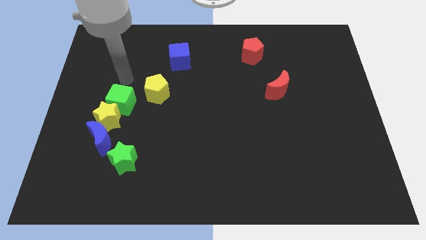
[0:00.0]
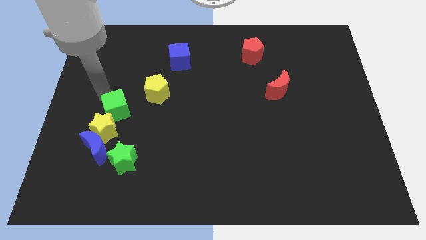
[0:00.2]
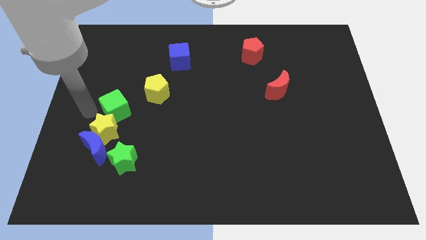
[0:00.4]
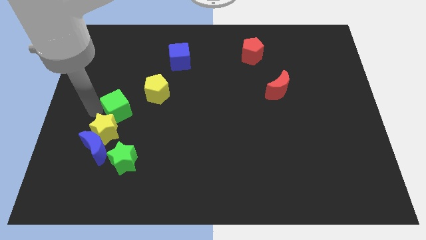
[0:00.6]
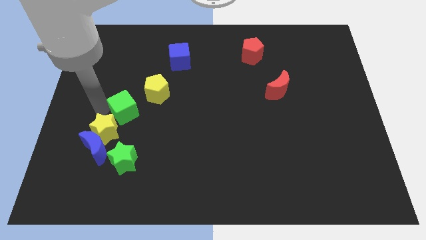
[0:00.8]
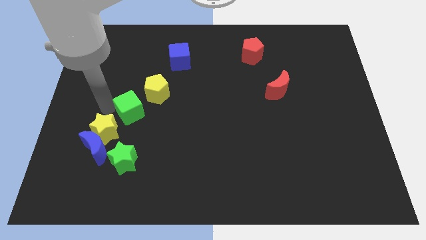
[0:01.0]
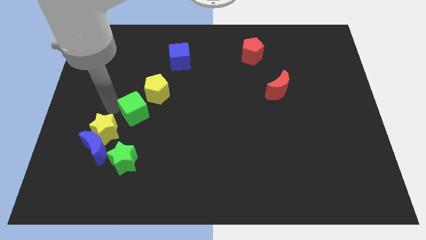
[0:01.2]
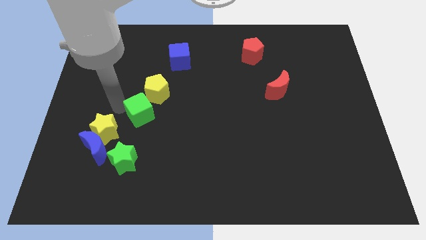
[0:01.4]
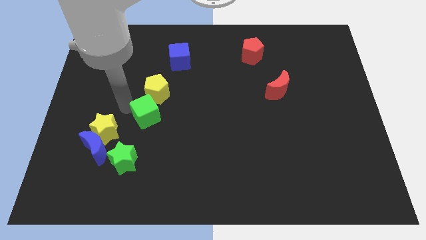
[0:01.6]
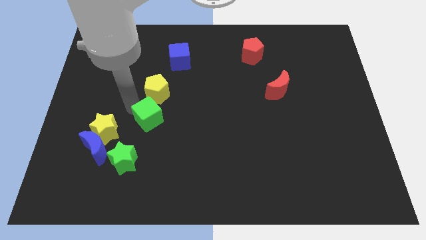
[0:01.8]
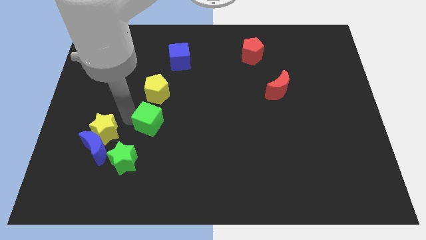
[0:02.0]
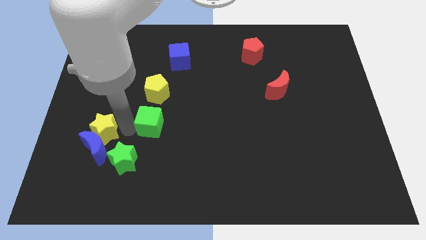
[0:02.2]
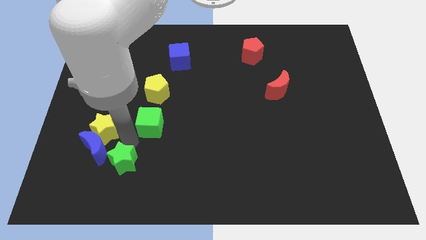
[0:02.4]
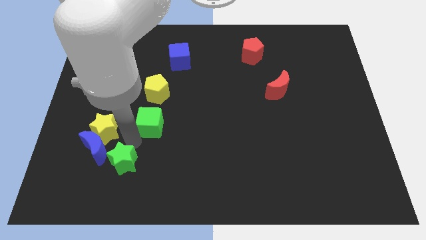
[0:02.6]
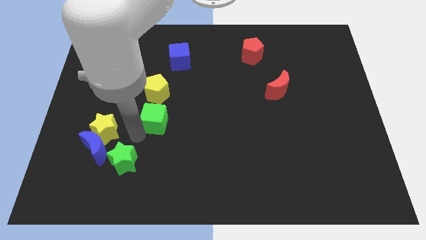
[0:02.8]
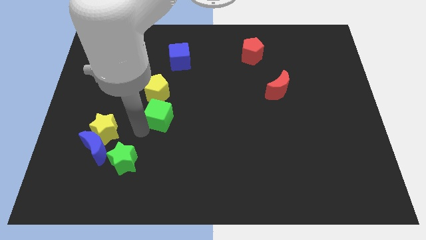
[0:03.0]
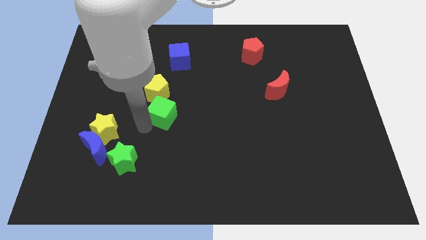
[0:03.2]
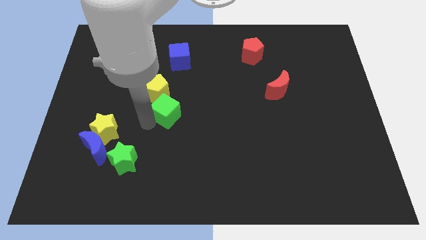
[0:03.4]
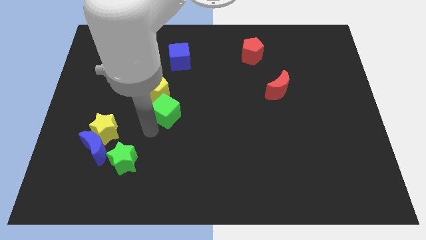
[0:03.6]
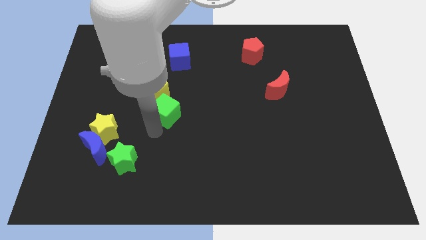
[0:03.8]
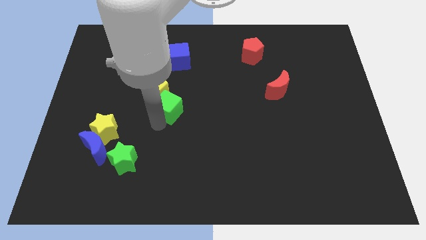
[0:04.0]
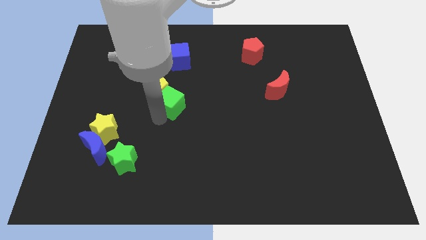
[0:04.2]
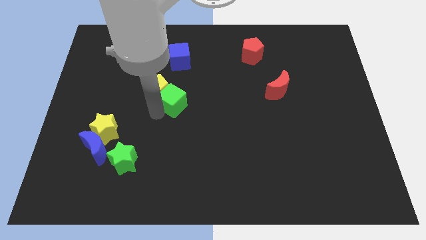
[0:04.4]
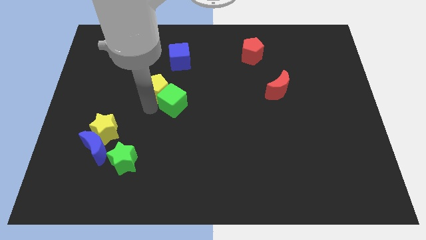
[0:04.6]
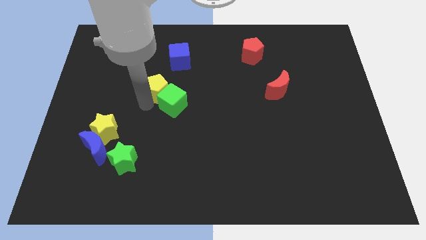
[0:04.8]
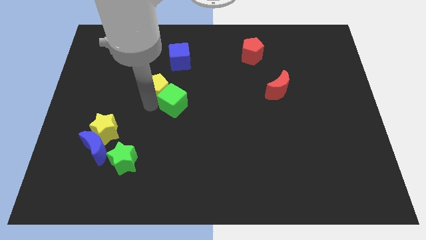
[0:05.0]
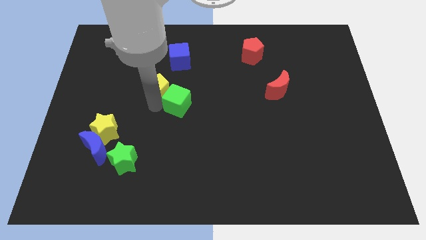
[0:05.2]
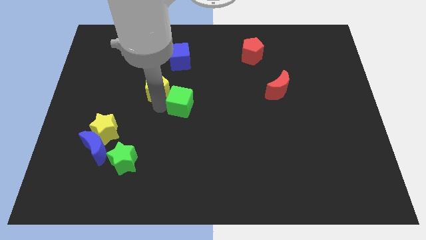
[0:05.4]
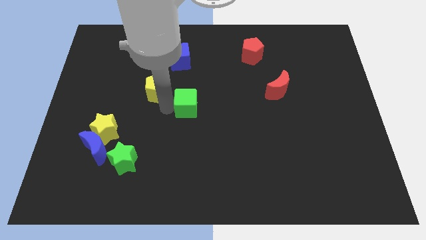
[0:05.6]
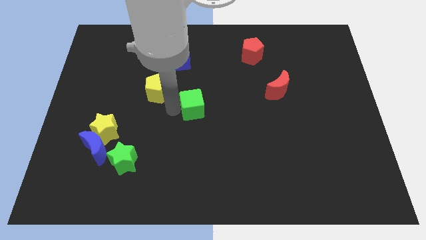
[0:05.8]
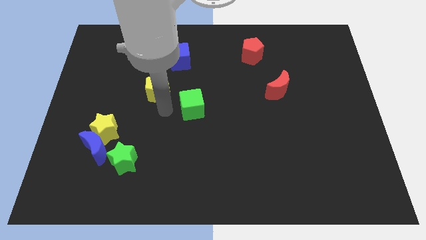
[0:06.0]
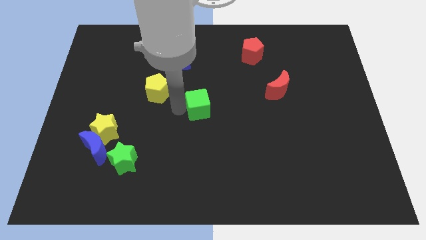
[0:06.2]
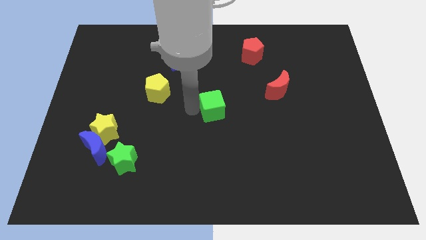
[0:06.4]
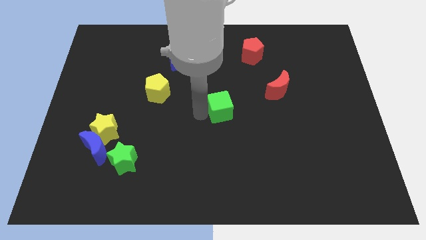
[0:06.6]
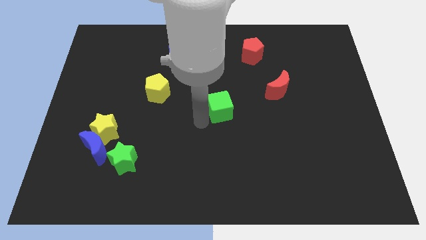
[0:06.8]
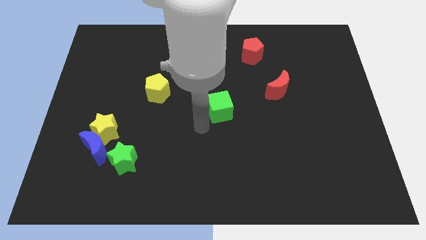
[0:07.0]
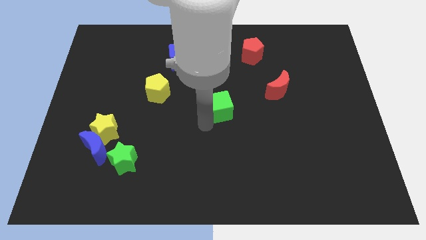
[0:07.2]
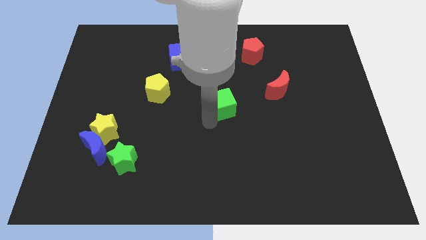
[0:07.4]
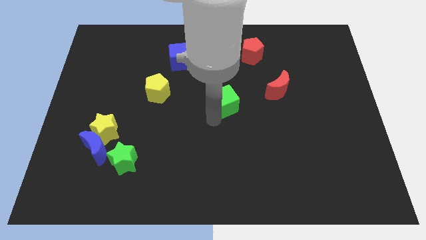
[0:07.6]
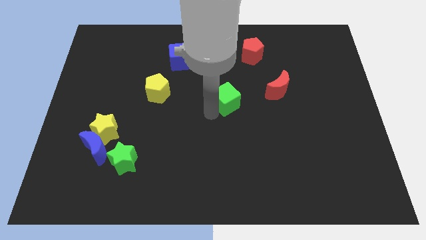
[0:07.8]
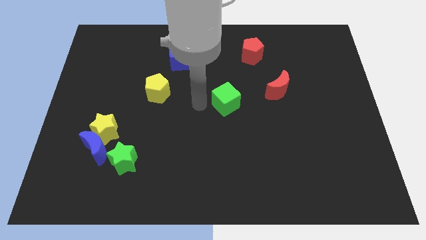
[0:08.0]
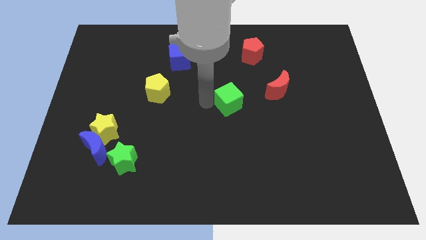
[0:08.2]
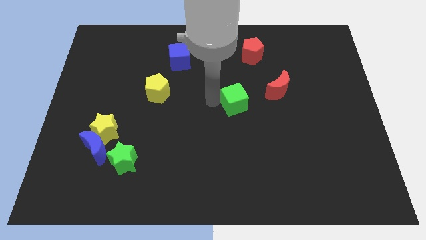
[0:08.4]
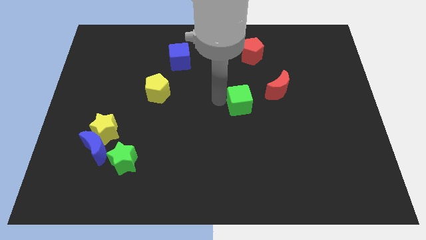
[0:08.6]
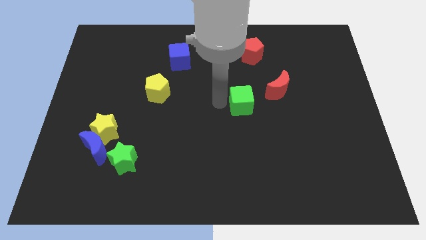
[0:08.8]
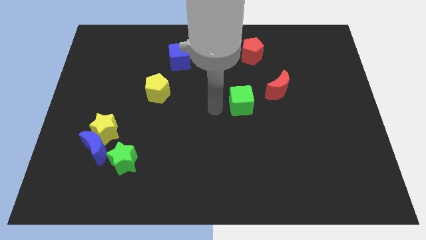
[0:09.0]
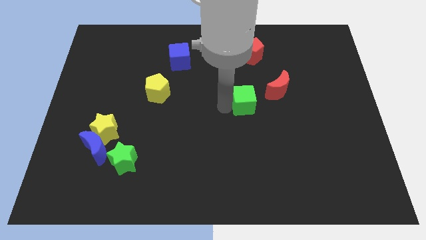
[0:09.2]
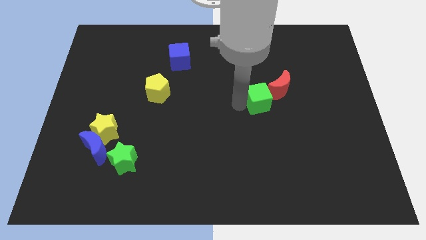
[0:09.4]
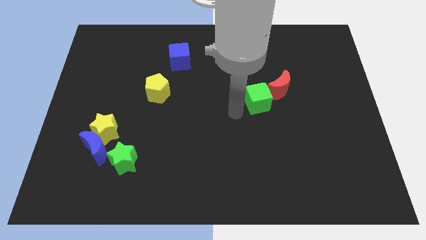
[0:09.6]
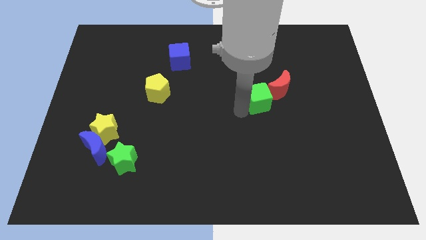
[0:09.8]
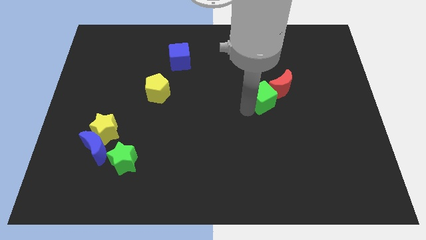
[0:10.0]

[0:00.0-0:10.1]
push the green cube towards the red moon

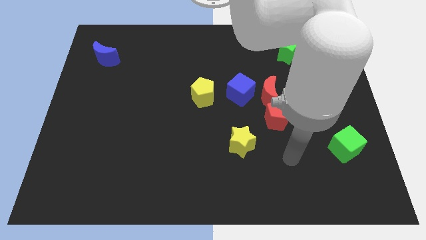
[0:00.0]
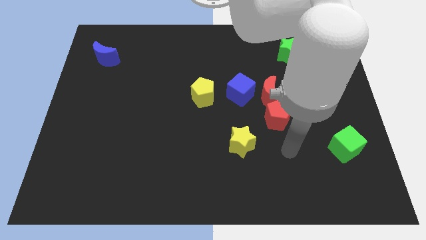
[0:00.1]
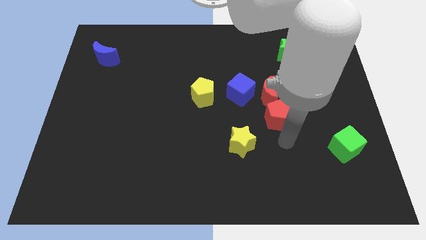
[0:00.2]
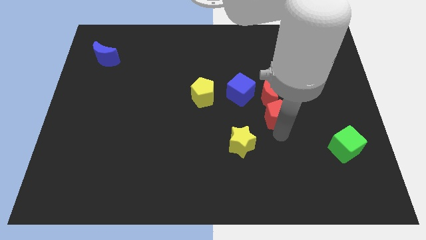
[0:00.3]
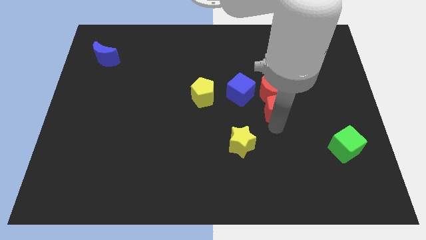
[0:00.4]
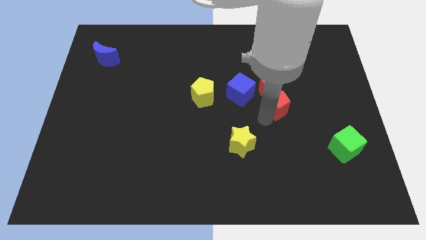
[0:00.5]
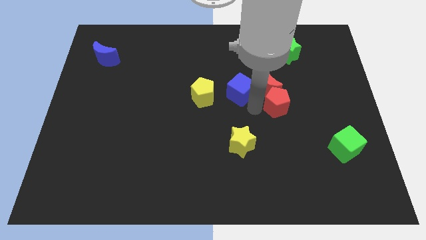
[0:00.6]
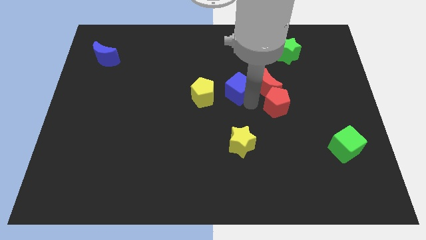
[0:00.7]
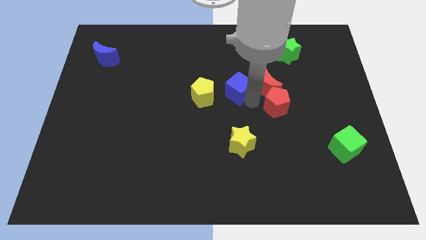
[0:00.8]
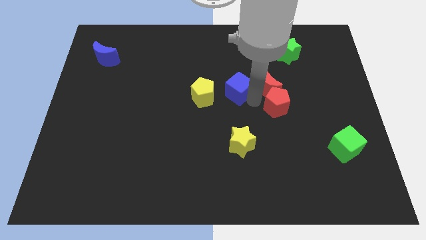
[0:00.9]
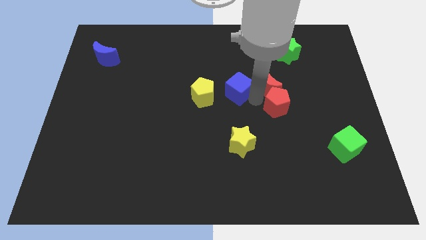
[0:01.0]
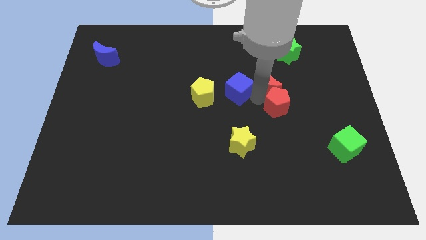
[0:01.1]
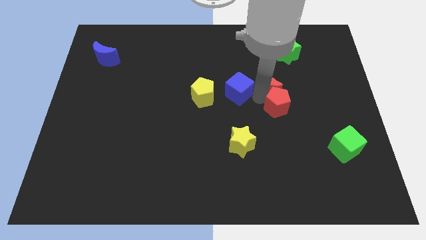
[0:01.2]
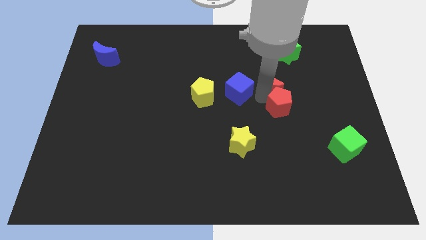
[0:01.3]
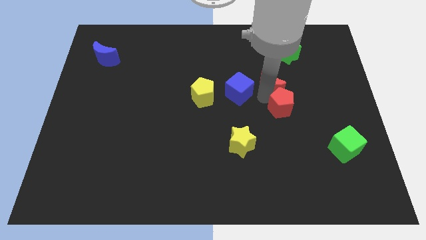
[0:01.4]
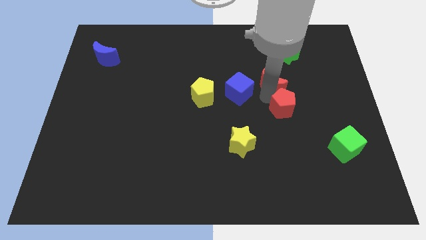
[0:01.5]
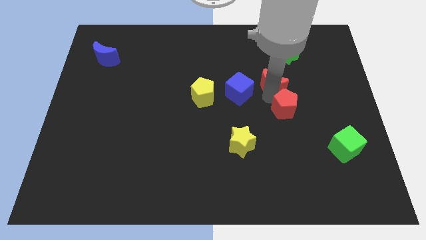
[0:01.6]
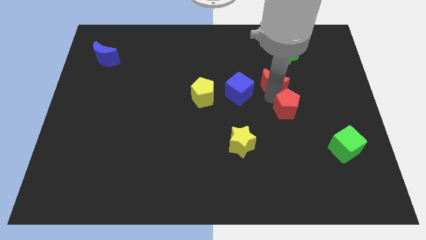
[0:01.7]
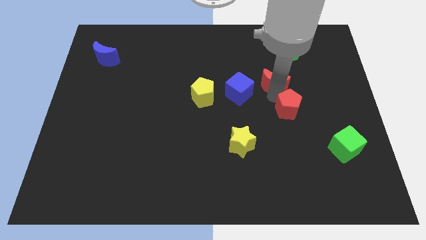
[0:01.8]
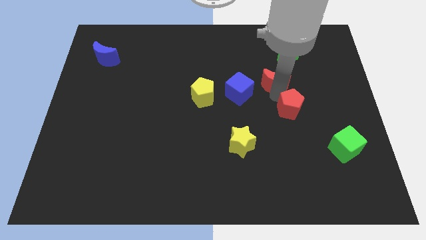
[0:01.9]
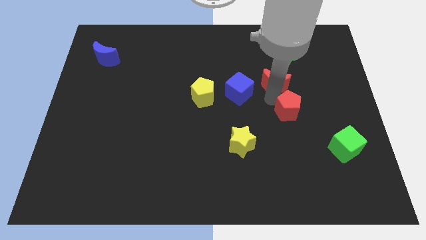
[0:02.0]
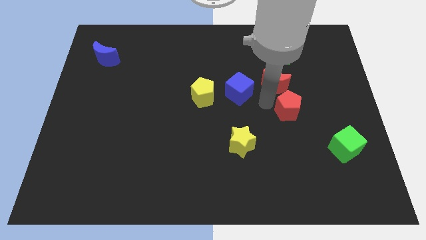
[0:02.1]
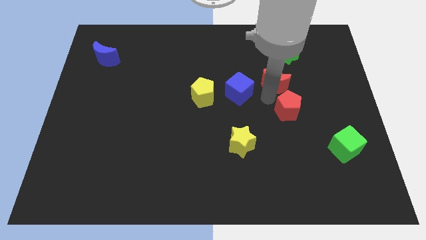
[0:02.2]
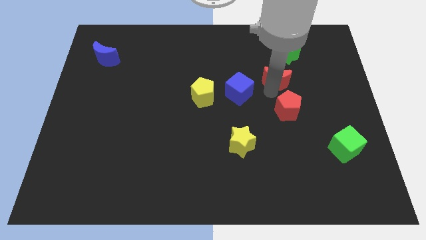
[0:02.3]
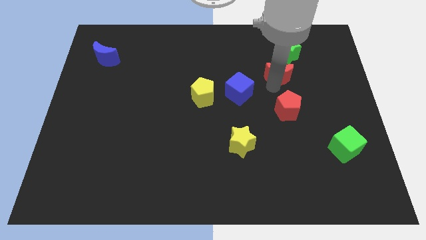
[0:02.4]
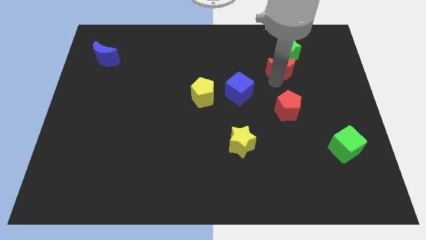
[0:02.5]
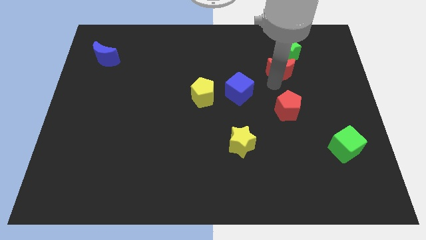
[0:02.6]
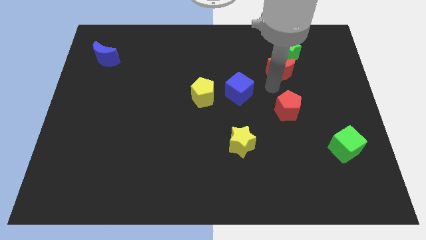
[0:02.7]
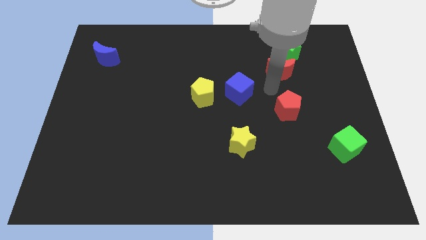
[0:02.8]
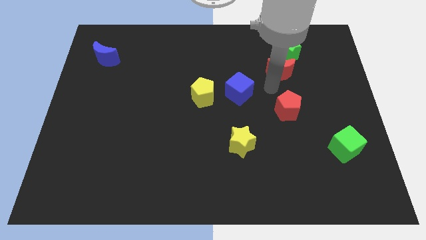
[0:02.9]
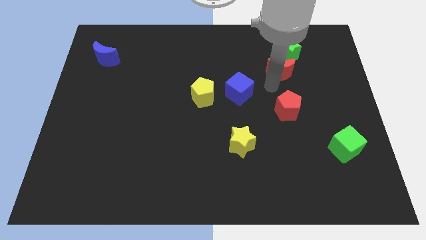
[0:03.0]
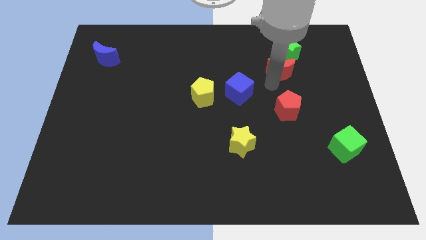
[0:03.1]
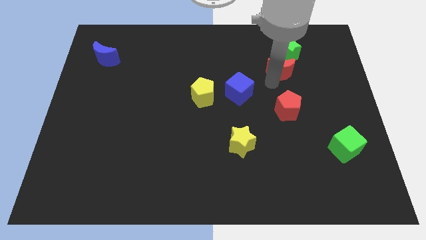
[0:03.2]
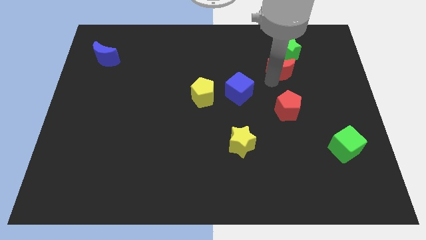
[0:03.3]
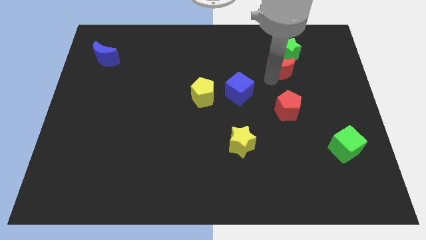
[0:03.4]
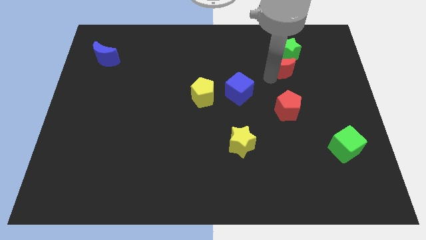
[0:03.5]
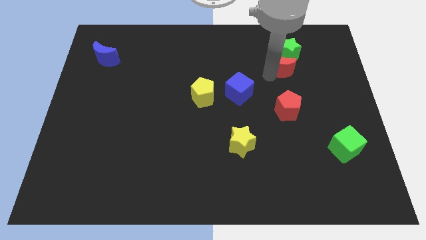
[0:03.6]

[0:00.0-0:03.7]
move the red moon towards the green star
